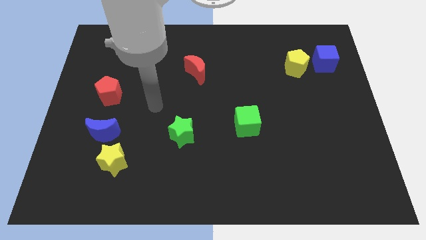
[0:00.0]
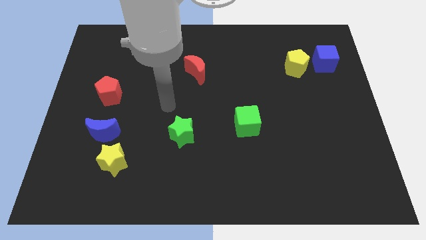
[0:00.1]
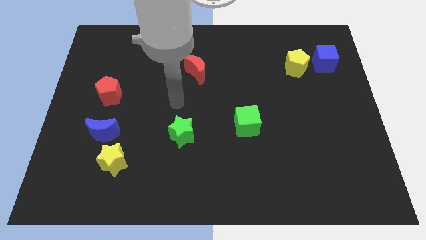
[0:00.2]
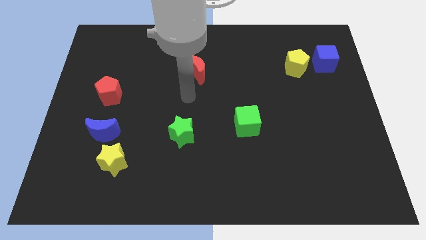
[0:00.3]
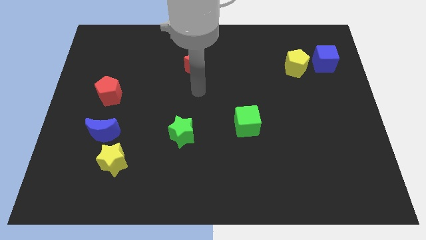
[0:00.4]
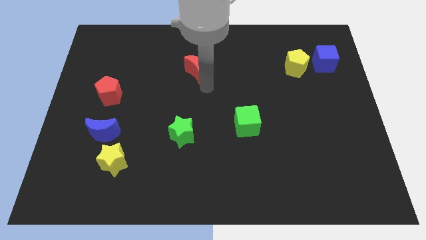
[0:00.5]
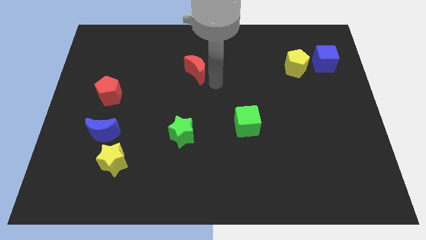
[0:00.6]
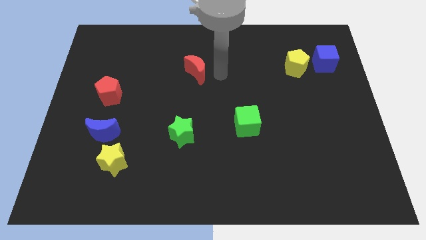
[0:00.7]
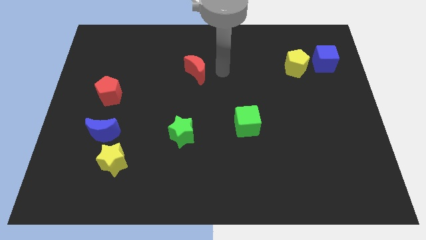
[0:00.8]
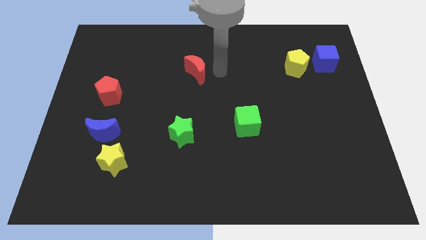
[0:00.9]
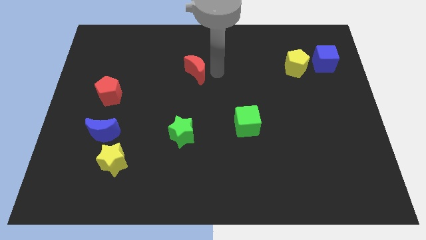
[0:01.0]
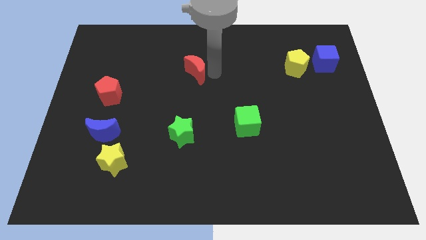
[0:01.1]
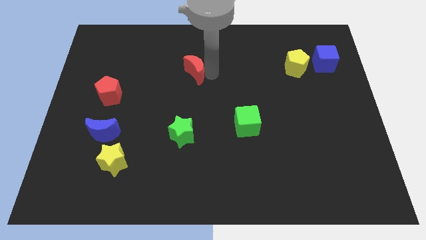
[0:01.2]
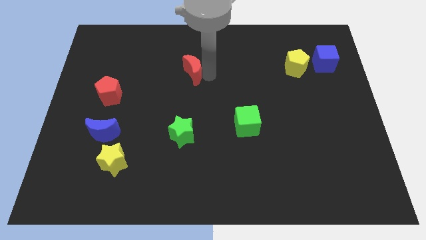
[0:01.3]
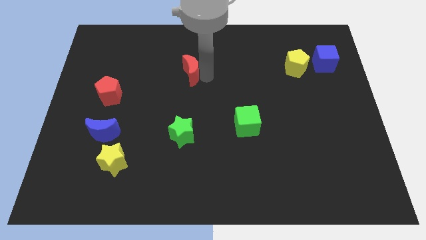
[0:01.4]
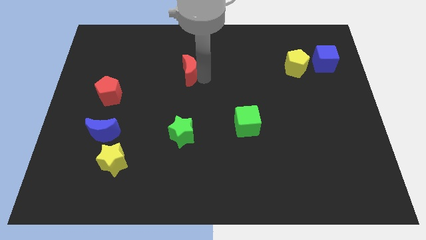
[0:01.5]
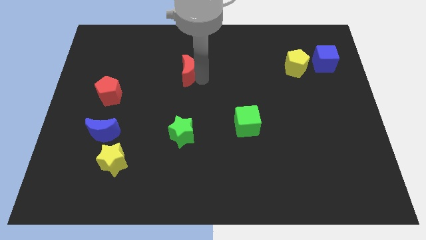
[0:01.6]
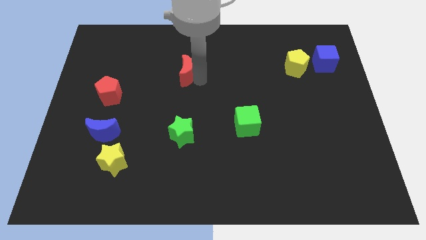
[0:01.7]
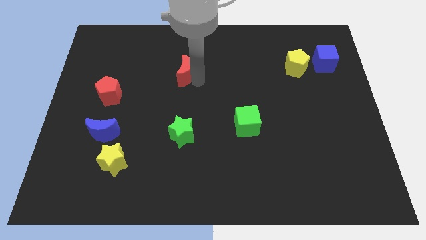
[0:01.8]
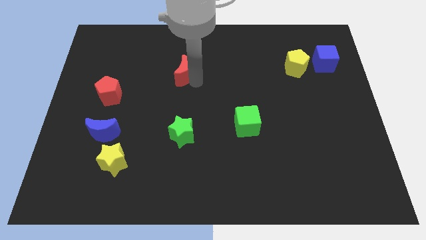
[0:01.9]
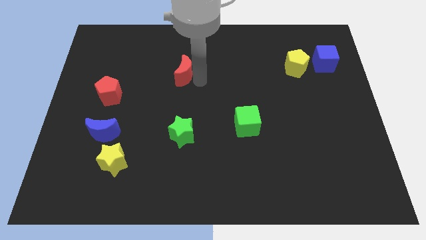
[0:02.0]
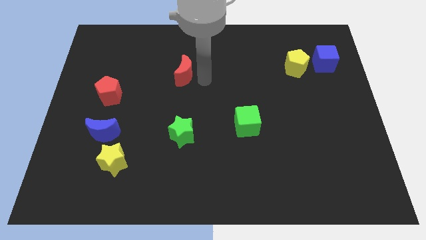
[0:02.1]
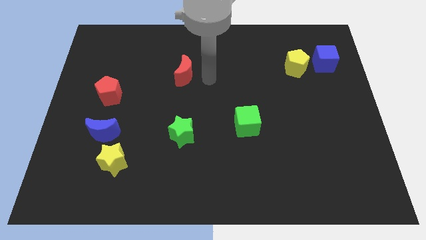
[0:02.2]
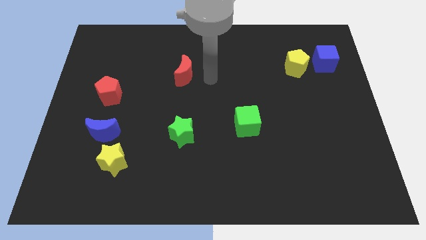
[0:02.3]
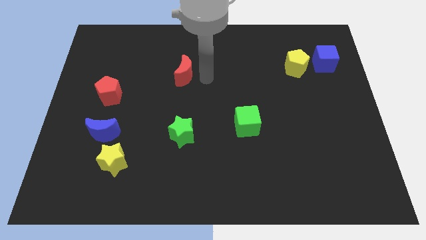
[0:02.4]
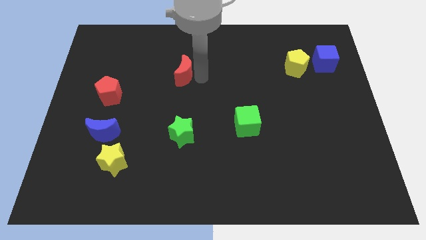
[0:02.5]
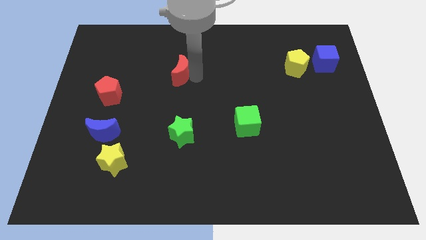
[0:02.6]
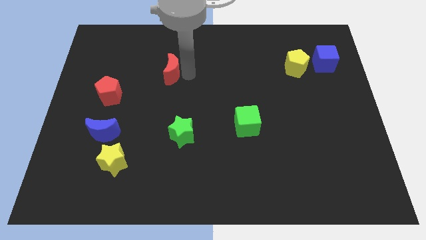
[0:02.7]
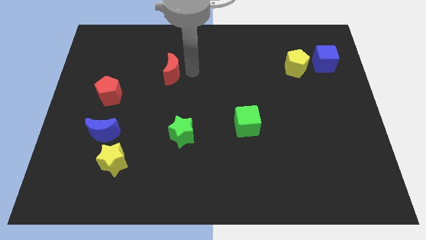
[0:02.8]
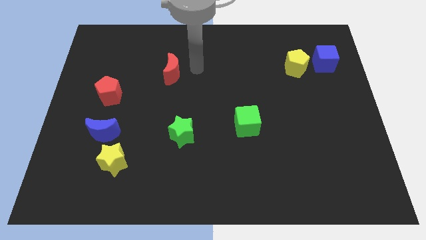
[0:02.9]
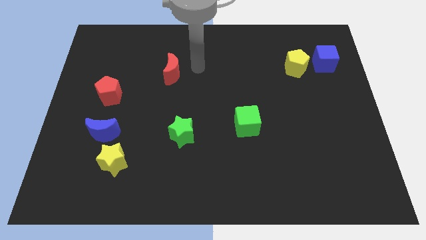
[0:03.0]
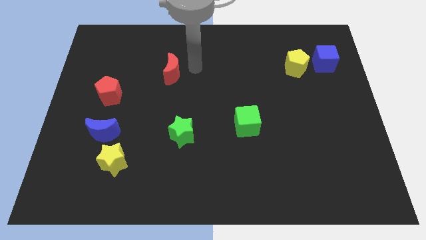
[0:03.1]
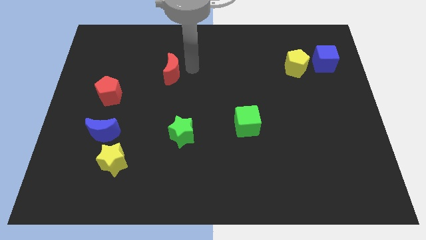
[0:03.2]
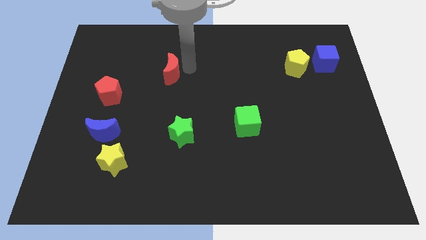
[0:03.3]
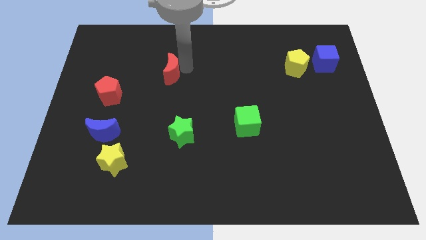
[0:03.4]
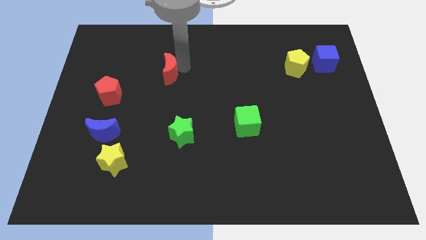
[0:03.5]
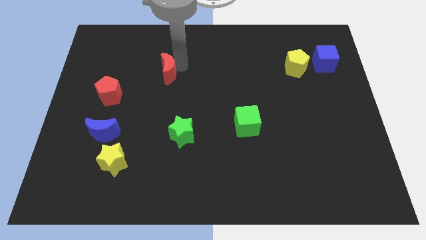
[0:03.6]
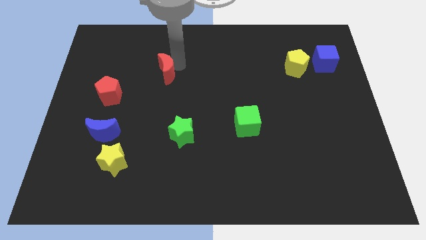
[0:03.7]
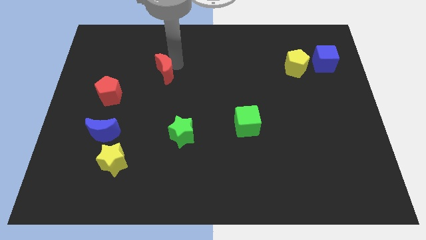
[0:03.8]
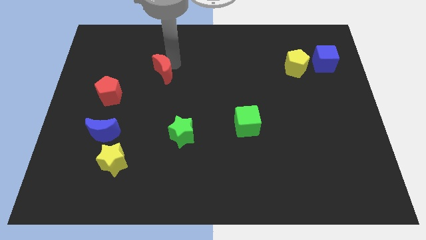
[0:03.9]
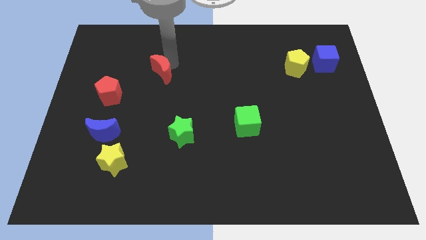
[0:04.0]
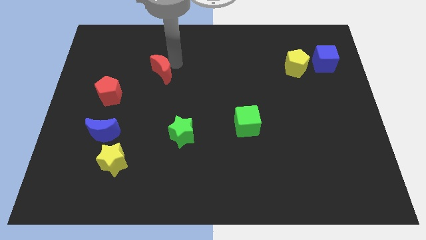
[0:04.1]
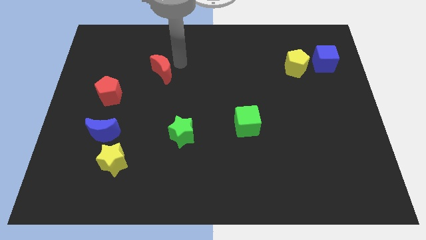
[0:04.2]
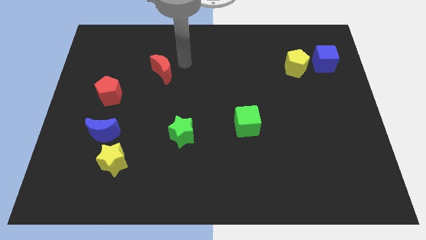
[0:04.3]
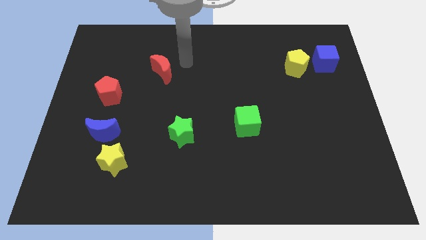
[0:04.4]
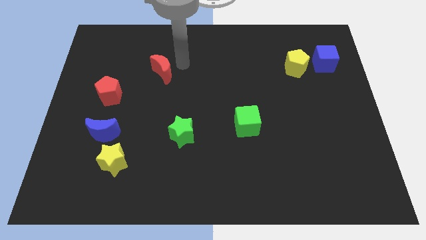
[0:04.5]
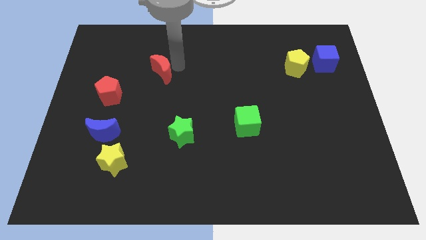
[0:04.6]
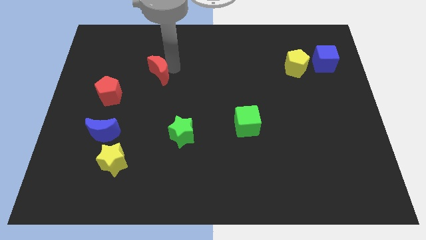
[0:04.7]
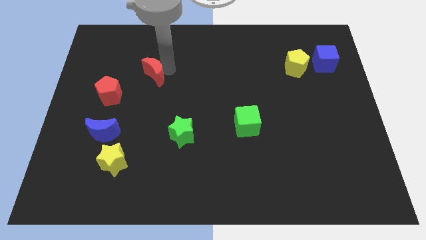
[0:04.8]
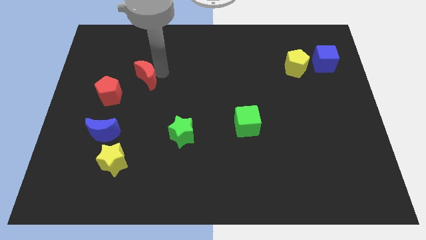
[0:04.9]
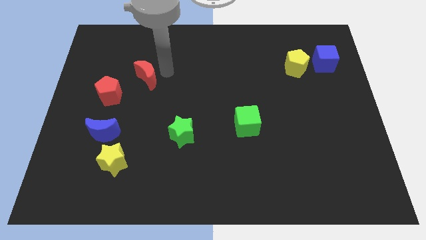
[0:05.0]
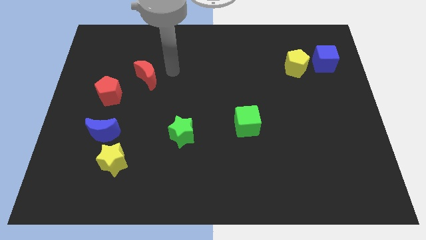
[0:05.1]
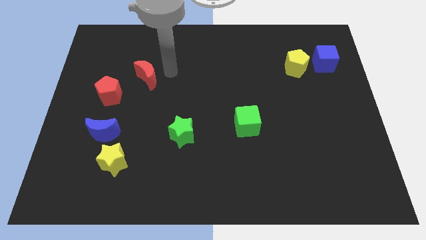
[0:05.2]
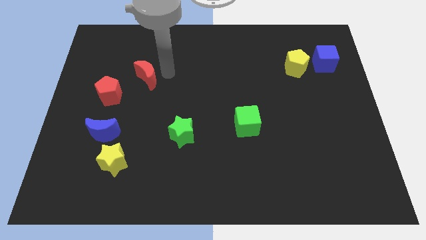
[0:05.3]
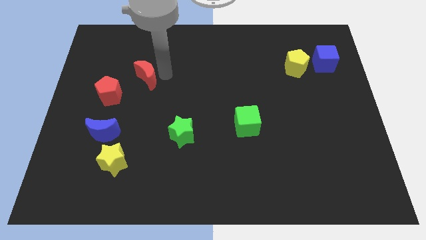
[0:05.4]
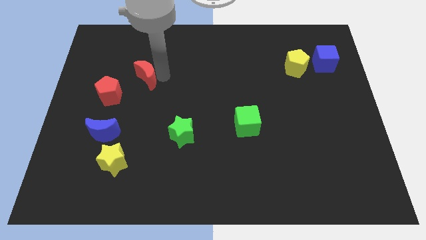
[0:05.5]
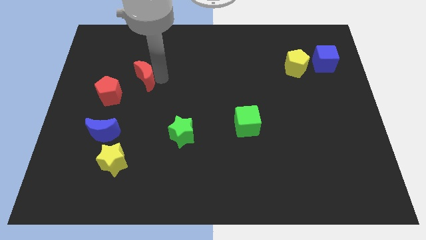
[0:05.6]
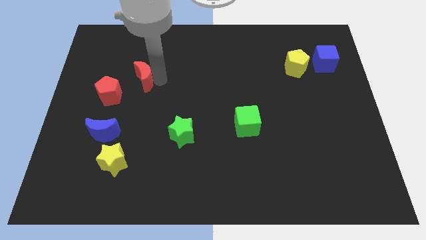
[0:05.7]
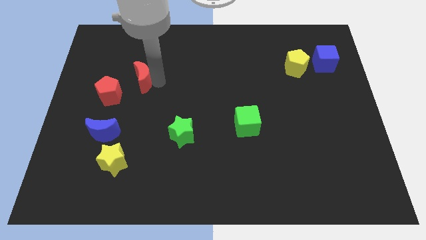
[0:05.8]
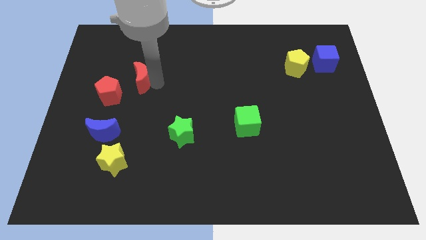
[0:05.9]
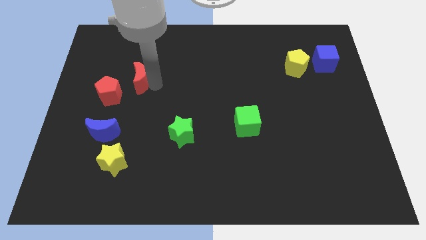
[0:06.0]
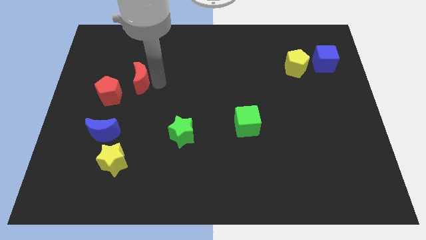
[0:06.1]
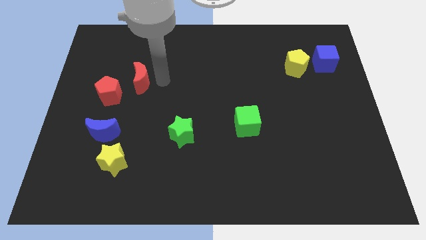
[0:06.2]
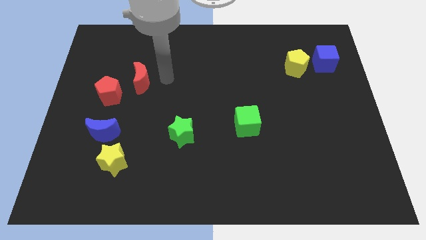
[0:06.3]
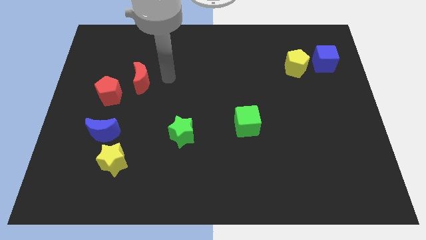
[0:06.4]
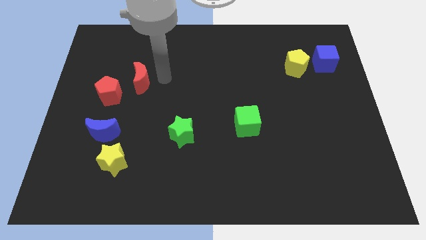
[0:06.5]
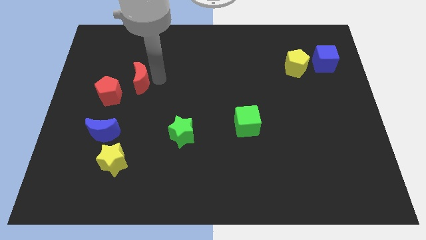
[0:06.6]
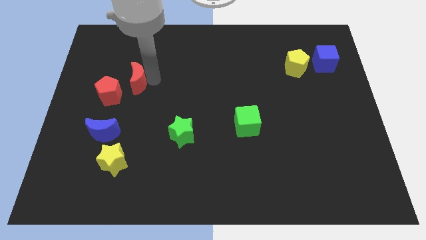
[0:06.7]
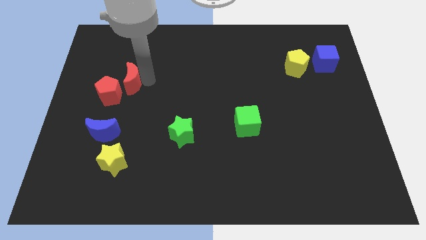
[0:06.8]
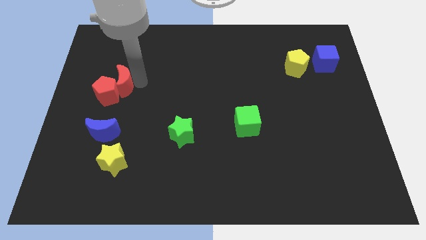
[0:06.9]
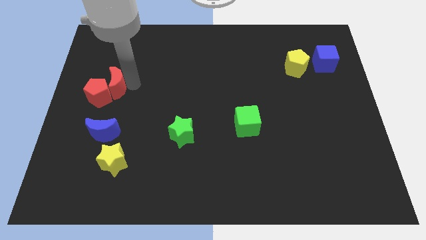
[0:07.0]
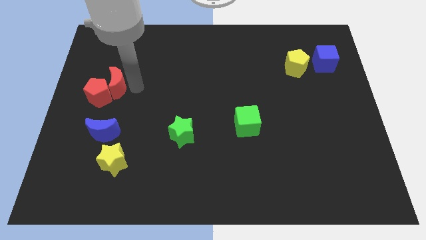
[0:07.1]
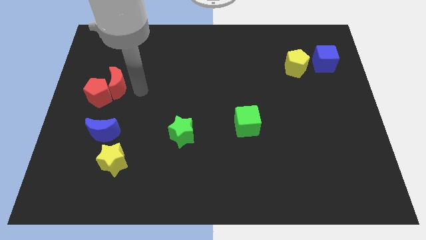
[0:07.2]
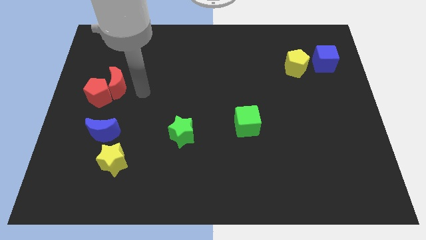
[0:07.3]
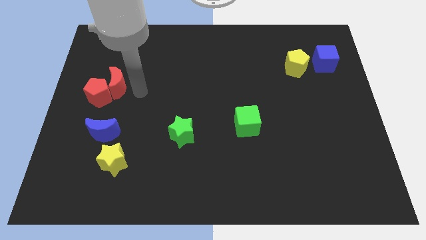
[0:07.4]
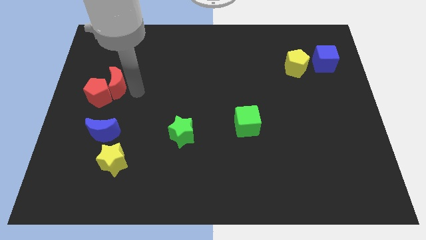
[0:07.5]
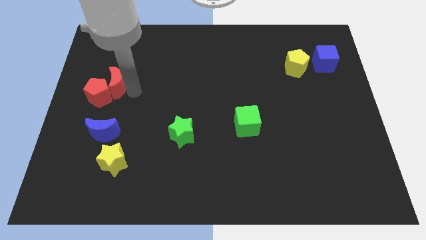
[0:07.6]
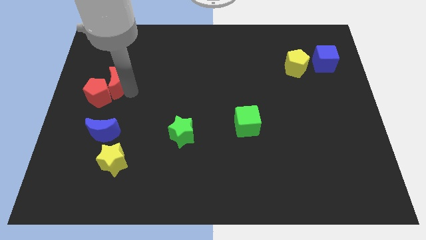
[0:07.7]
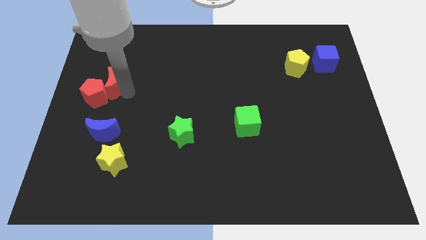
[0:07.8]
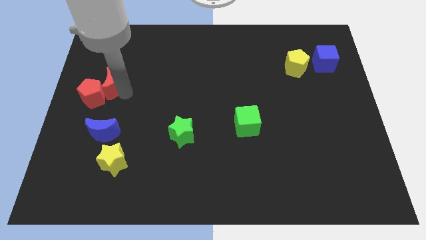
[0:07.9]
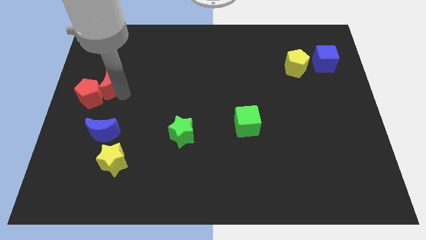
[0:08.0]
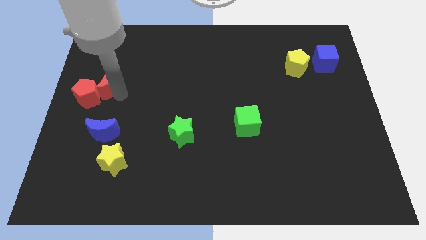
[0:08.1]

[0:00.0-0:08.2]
move the red moon to the left side of the board
